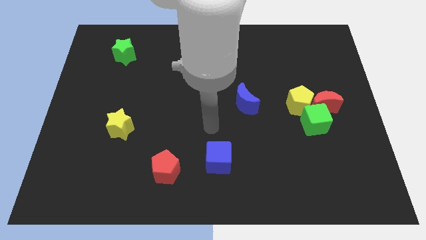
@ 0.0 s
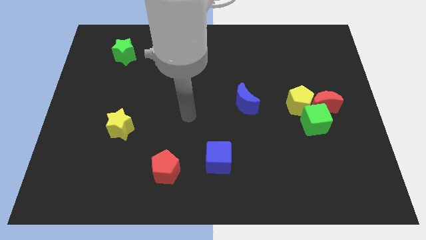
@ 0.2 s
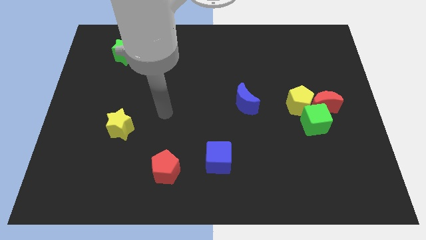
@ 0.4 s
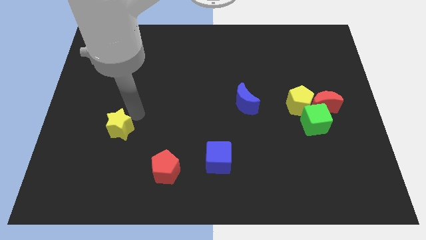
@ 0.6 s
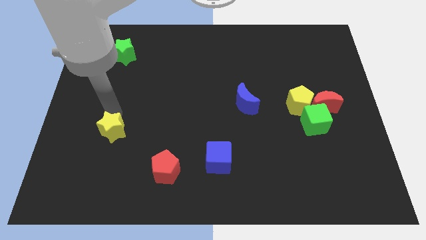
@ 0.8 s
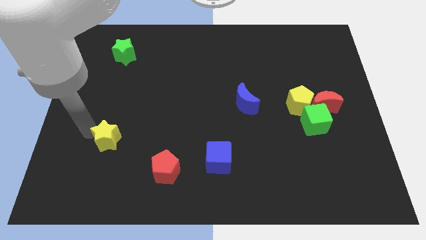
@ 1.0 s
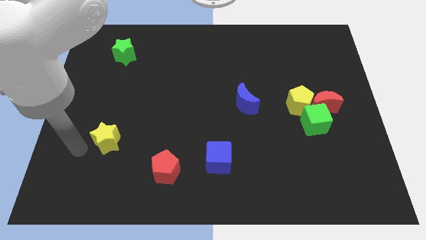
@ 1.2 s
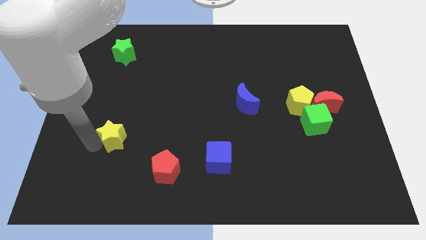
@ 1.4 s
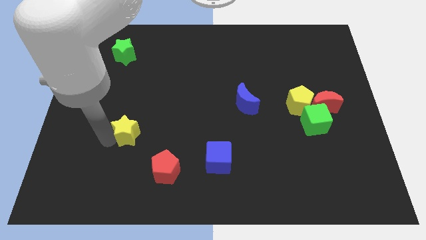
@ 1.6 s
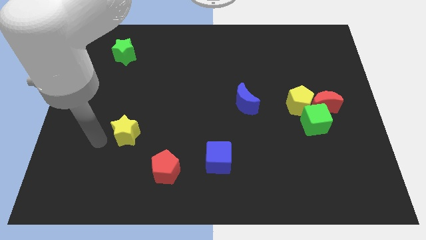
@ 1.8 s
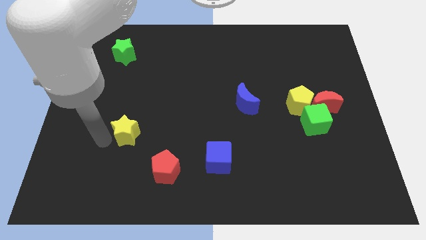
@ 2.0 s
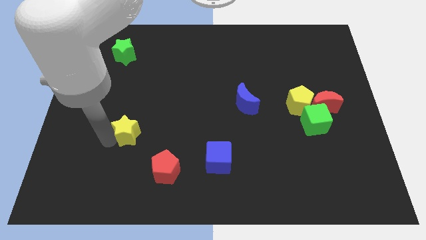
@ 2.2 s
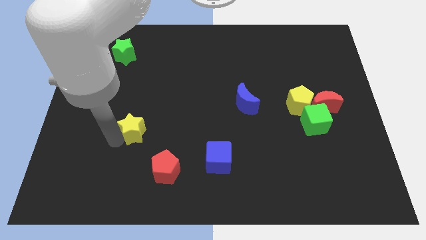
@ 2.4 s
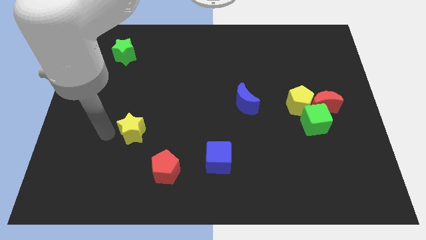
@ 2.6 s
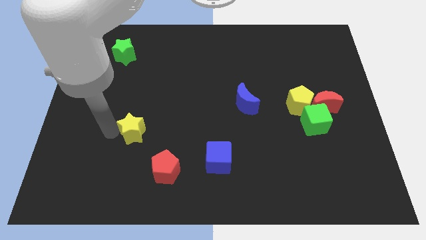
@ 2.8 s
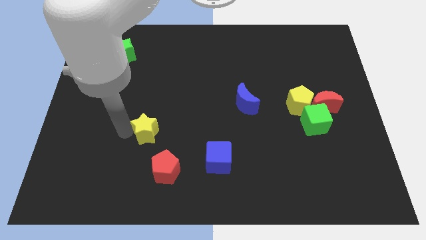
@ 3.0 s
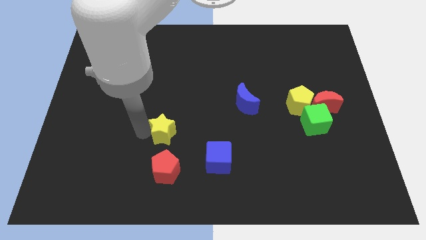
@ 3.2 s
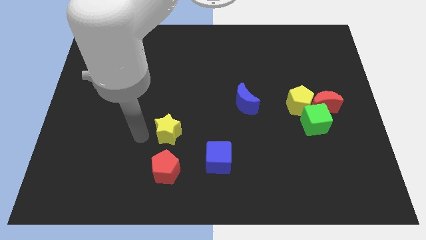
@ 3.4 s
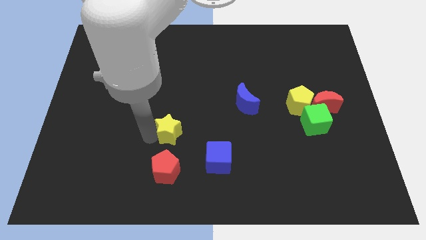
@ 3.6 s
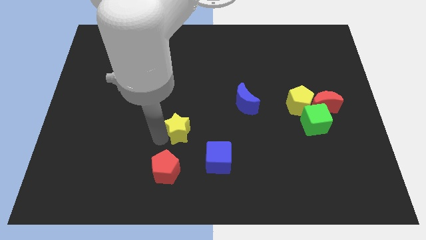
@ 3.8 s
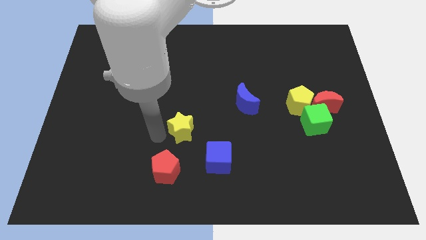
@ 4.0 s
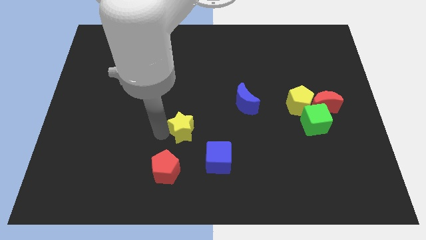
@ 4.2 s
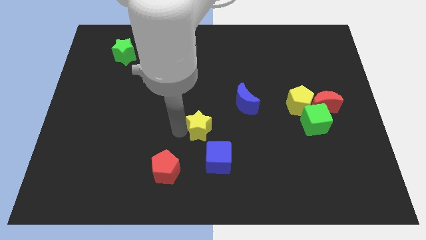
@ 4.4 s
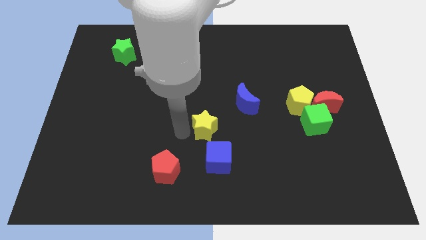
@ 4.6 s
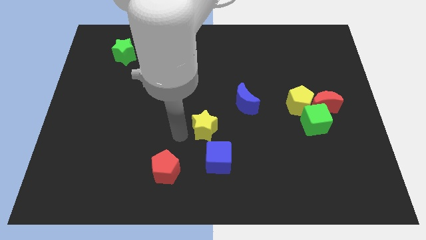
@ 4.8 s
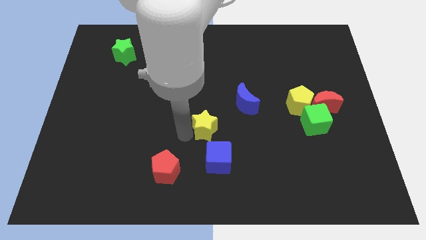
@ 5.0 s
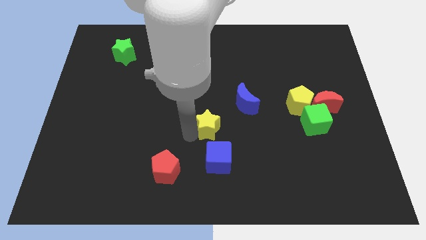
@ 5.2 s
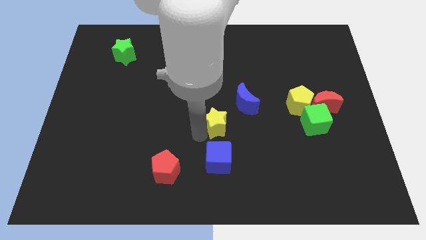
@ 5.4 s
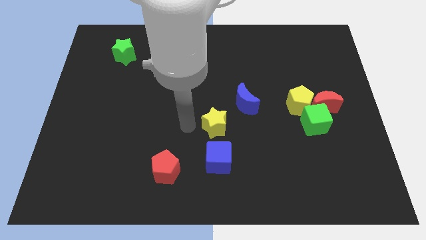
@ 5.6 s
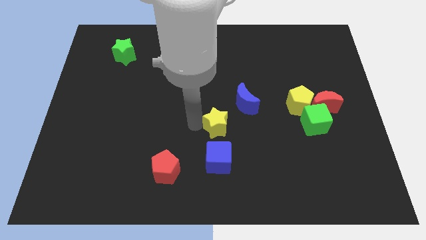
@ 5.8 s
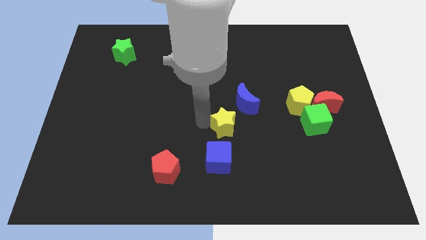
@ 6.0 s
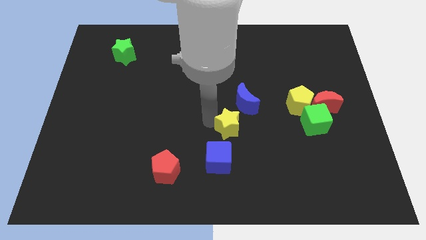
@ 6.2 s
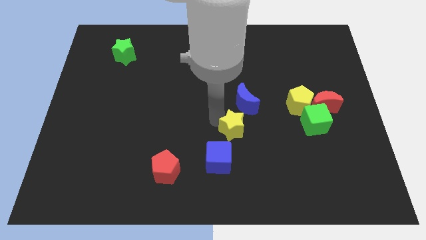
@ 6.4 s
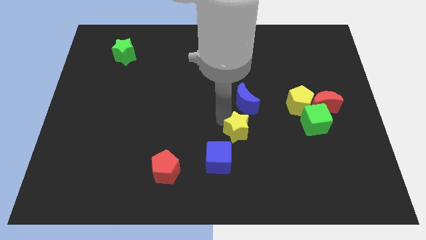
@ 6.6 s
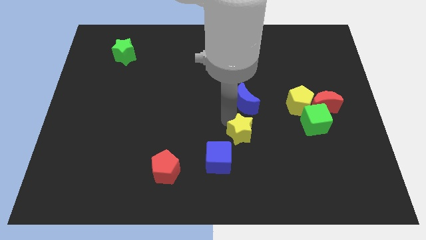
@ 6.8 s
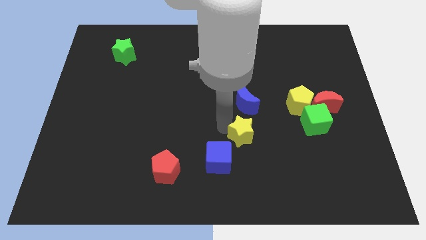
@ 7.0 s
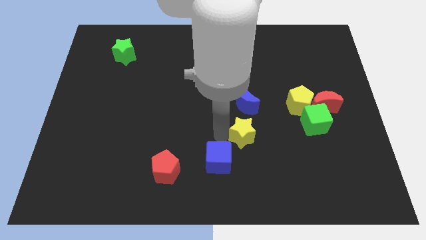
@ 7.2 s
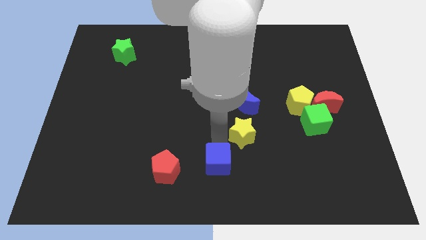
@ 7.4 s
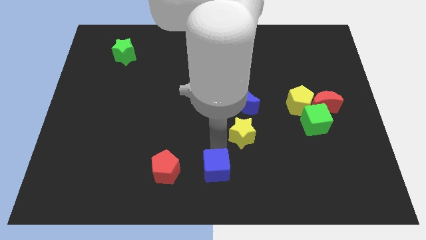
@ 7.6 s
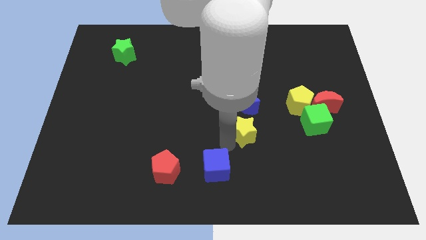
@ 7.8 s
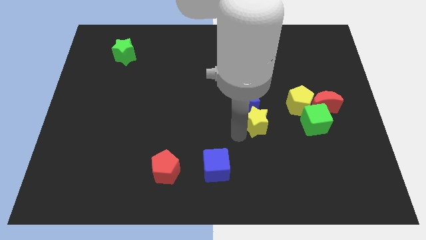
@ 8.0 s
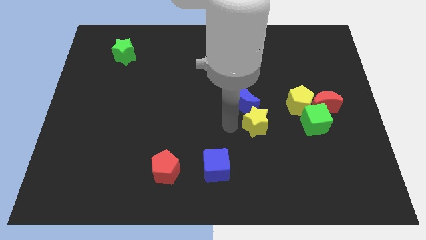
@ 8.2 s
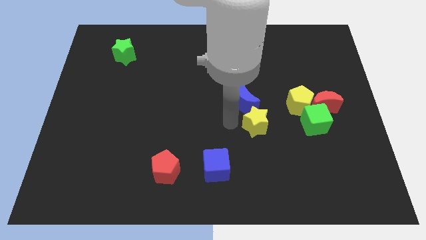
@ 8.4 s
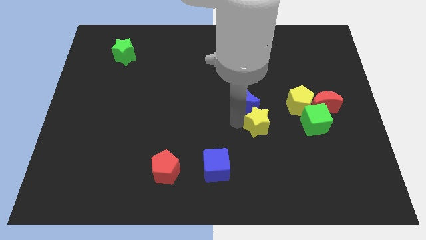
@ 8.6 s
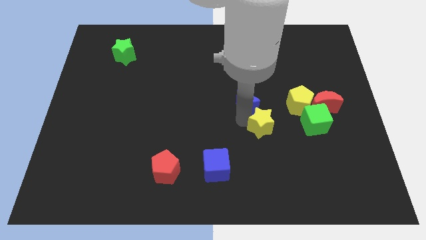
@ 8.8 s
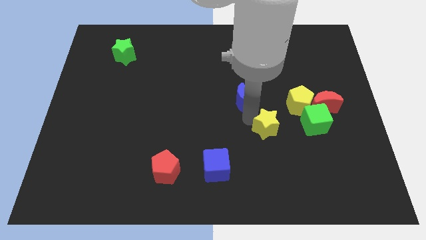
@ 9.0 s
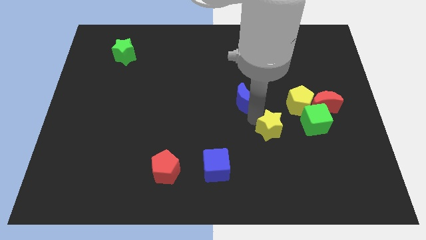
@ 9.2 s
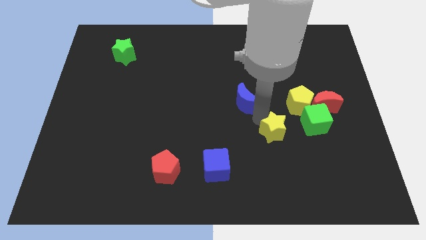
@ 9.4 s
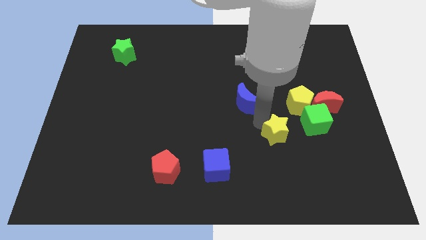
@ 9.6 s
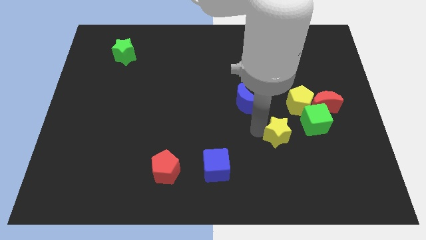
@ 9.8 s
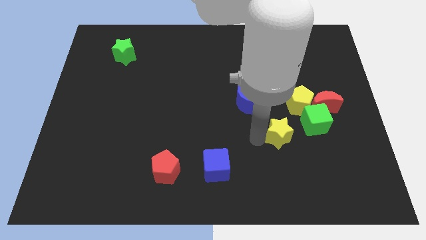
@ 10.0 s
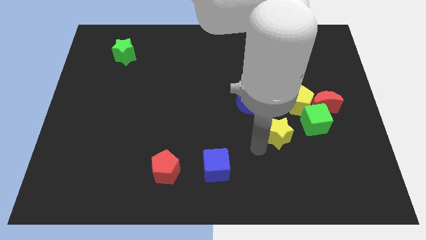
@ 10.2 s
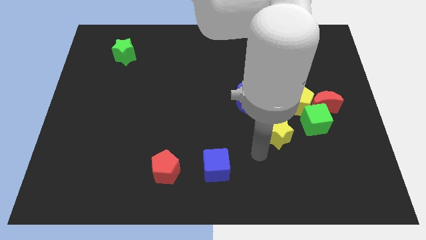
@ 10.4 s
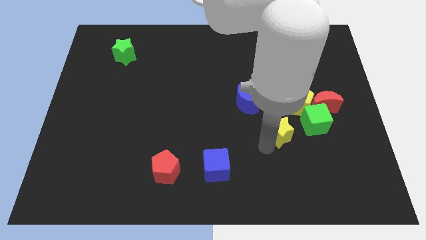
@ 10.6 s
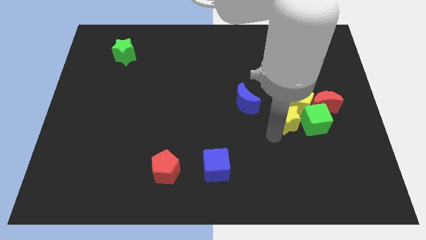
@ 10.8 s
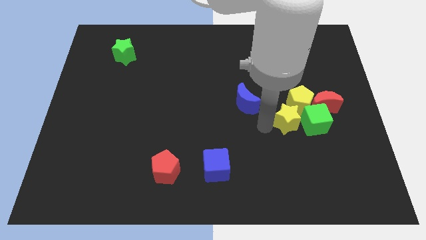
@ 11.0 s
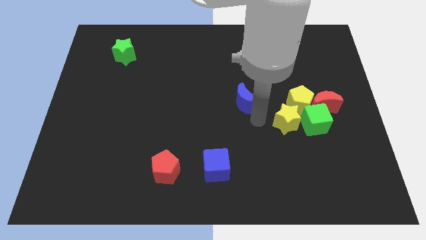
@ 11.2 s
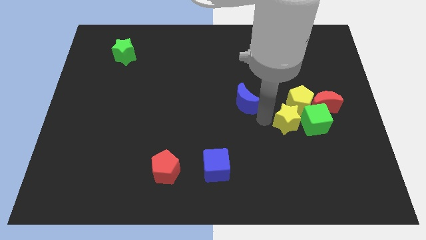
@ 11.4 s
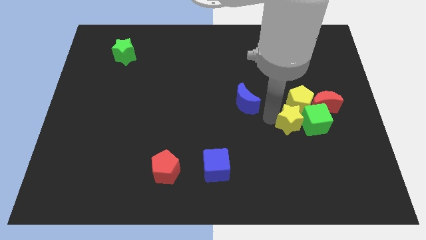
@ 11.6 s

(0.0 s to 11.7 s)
put the yellow star close to the green cube

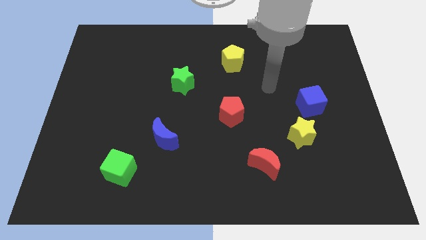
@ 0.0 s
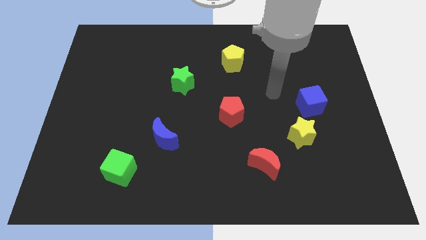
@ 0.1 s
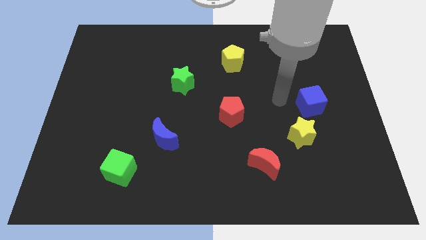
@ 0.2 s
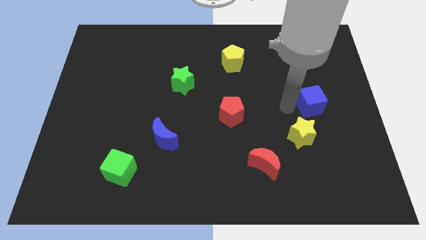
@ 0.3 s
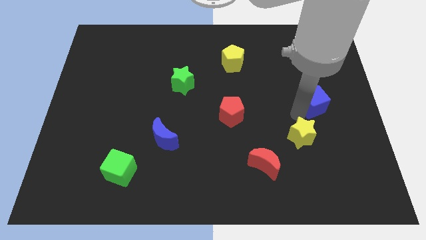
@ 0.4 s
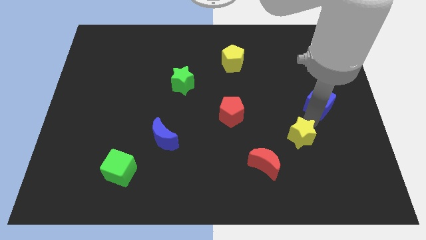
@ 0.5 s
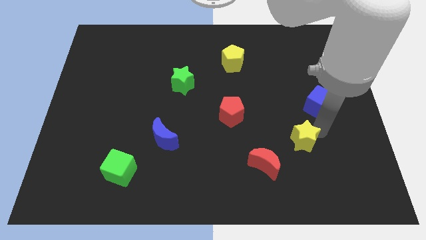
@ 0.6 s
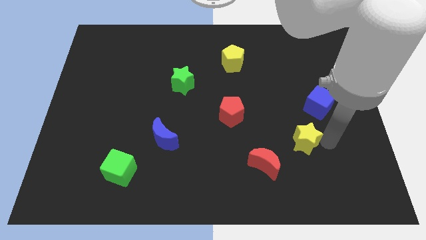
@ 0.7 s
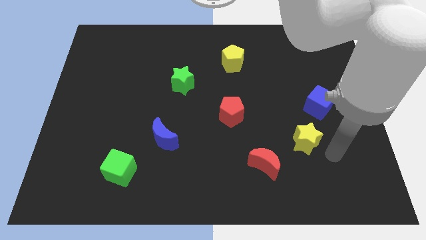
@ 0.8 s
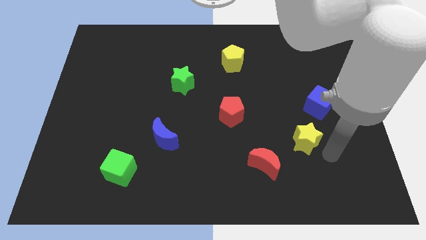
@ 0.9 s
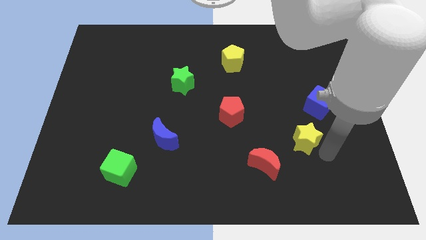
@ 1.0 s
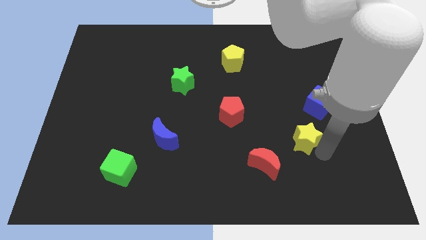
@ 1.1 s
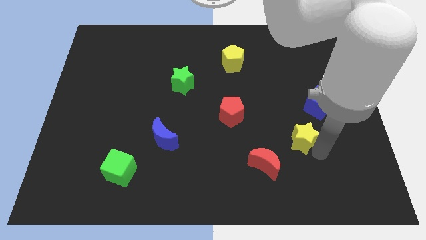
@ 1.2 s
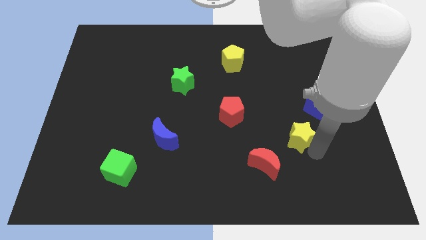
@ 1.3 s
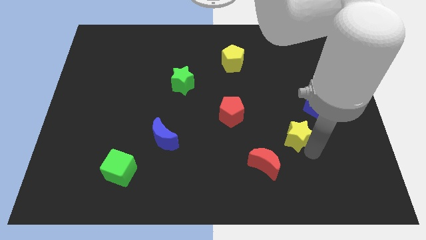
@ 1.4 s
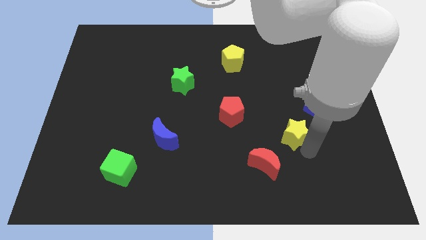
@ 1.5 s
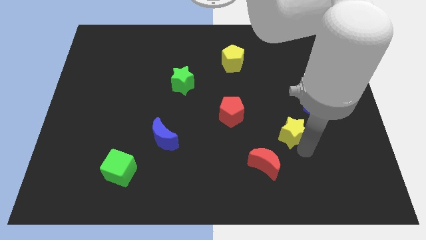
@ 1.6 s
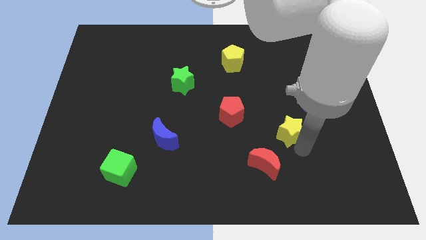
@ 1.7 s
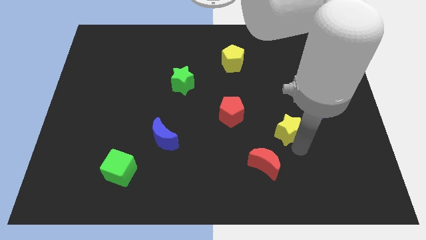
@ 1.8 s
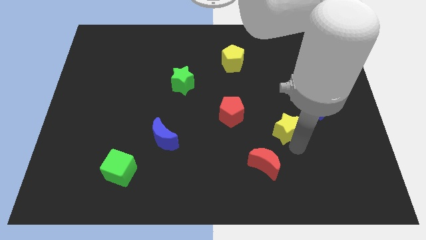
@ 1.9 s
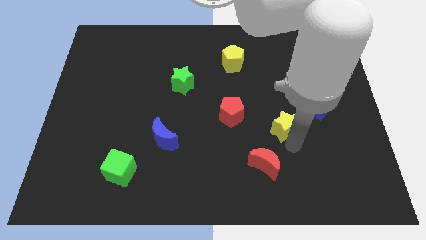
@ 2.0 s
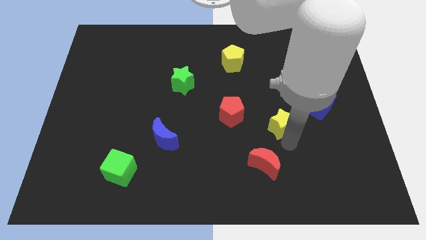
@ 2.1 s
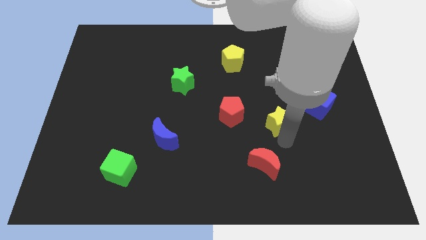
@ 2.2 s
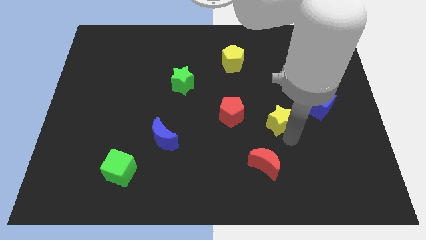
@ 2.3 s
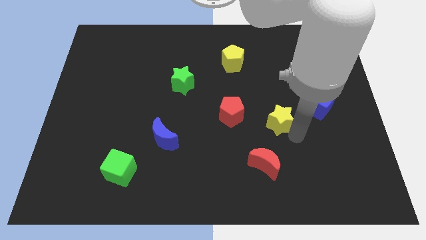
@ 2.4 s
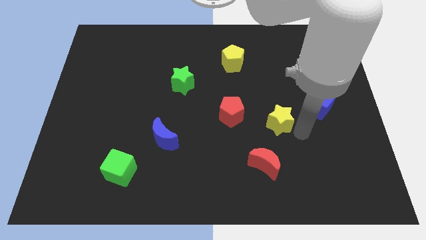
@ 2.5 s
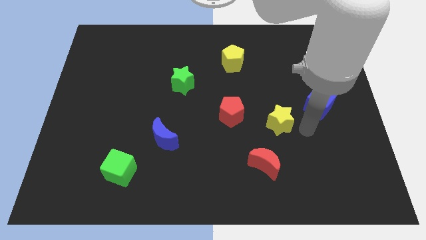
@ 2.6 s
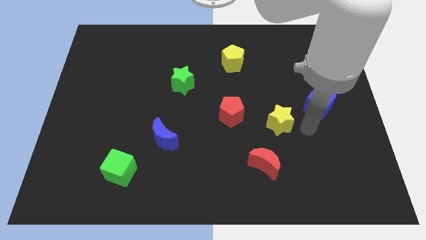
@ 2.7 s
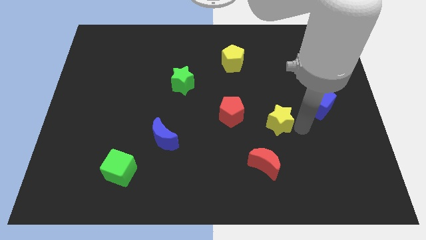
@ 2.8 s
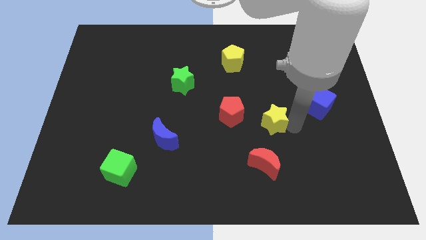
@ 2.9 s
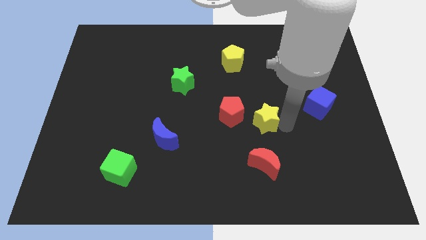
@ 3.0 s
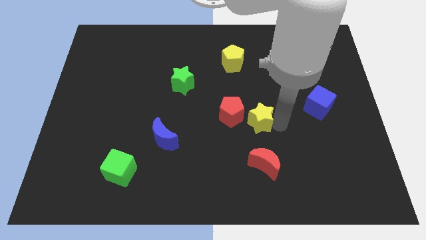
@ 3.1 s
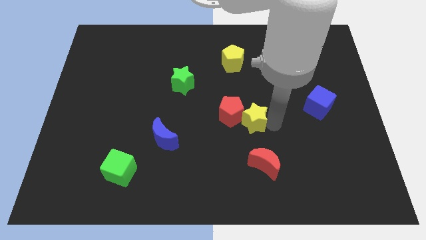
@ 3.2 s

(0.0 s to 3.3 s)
put the yellow star close to the red pentagon
